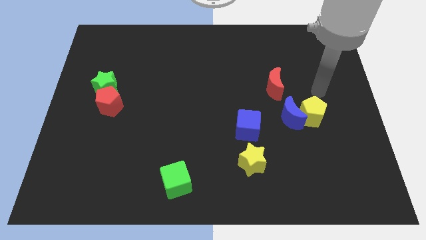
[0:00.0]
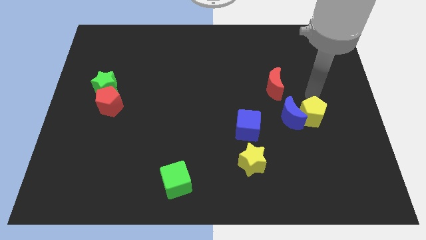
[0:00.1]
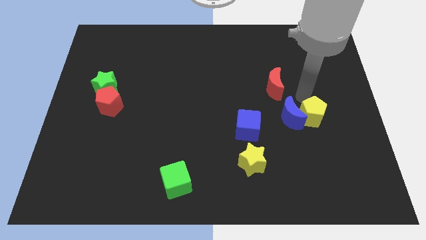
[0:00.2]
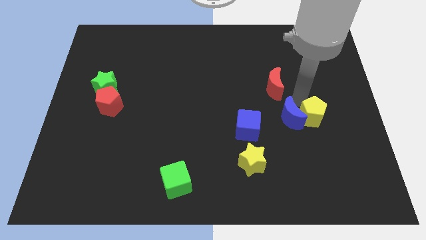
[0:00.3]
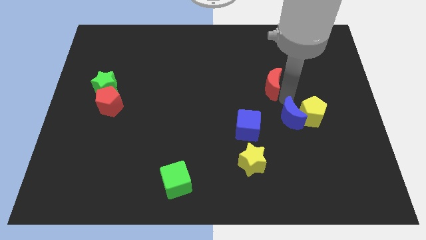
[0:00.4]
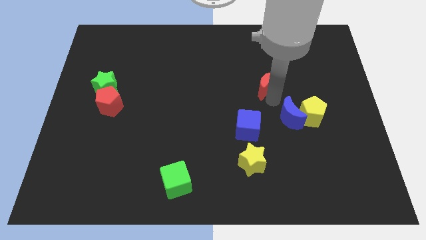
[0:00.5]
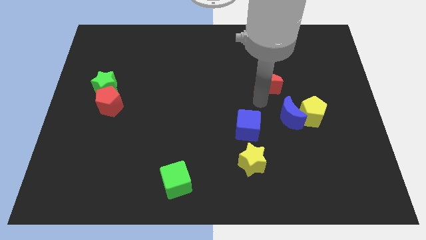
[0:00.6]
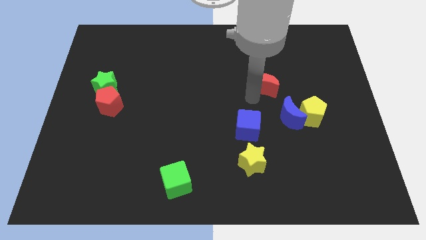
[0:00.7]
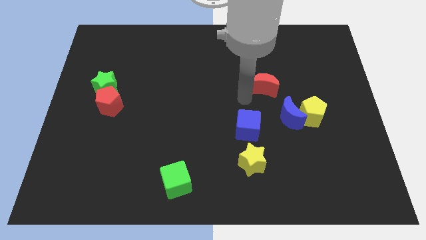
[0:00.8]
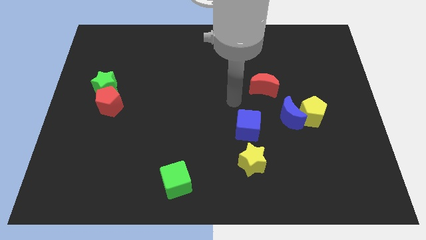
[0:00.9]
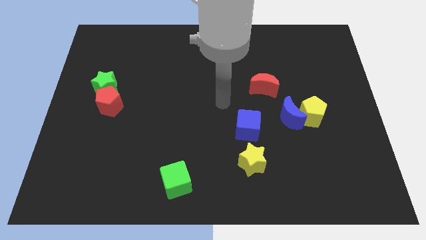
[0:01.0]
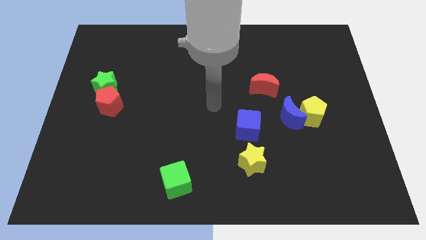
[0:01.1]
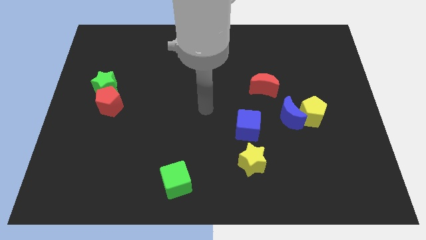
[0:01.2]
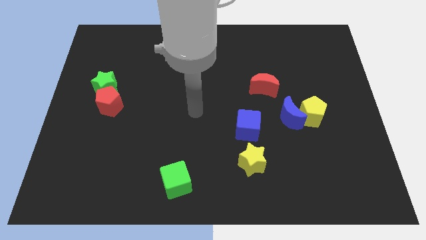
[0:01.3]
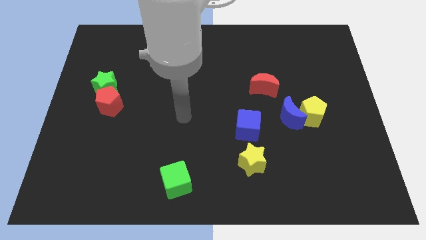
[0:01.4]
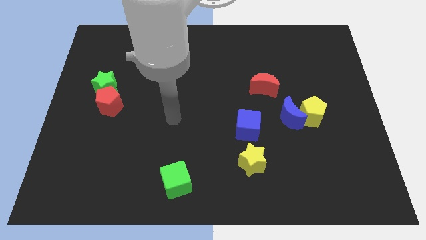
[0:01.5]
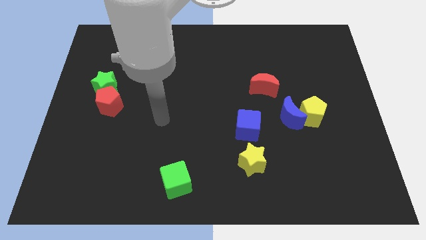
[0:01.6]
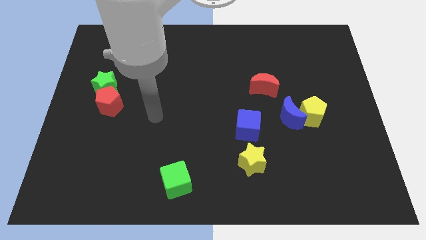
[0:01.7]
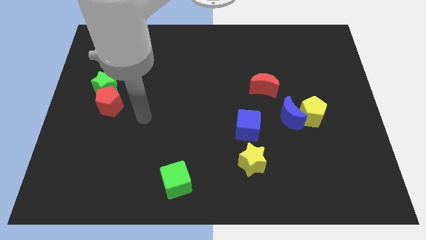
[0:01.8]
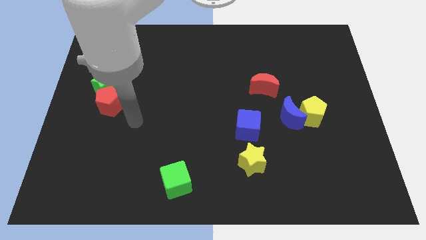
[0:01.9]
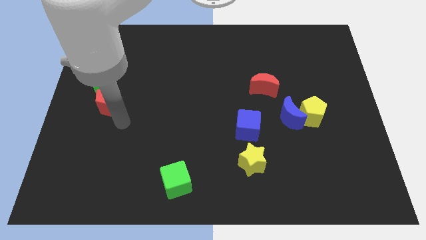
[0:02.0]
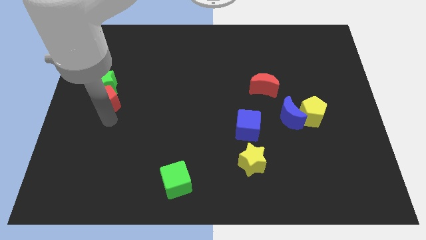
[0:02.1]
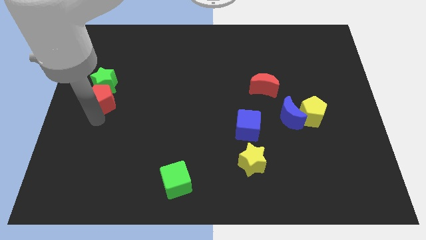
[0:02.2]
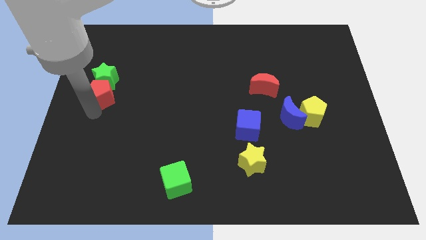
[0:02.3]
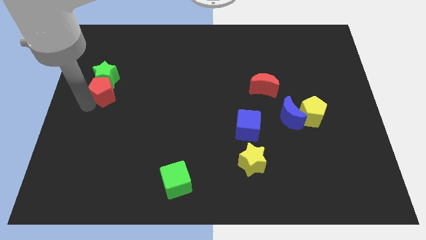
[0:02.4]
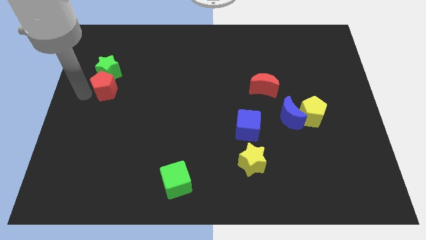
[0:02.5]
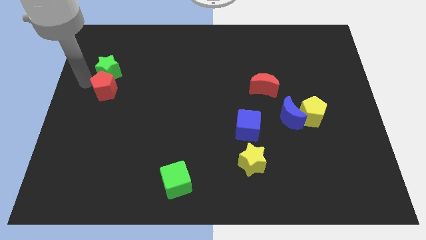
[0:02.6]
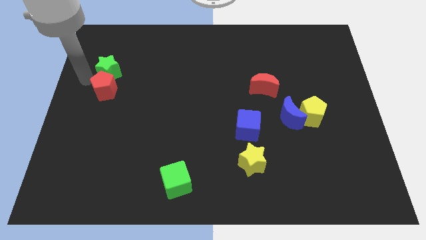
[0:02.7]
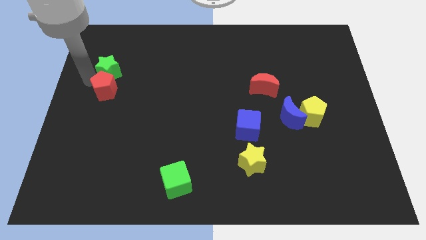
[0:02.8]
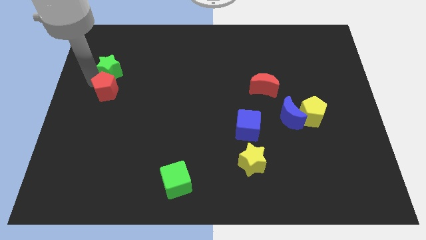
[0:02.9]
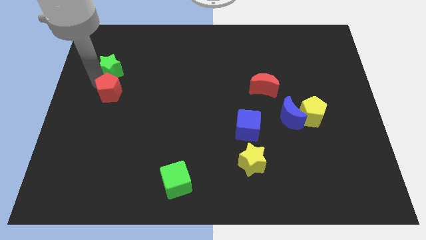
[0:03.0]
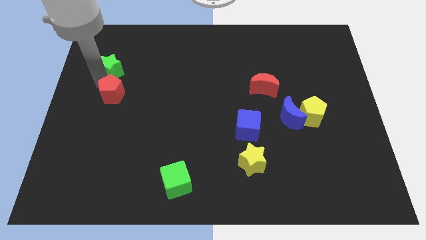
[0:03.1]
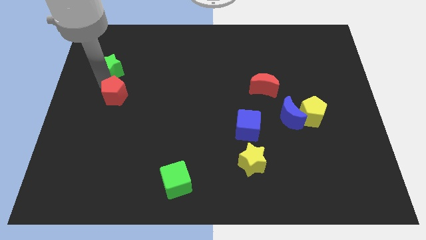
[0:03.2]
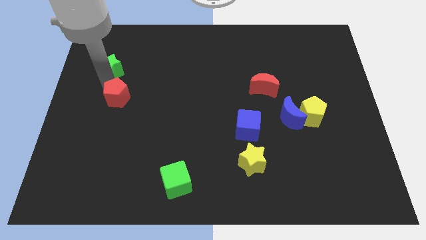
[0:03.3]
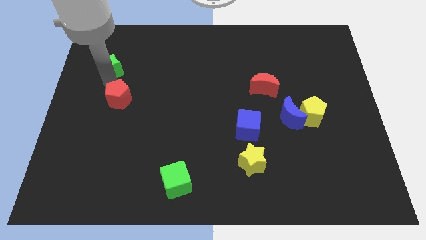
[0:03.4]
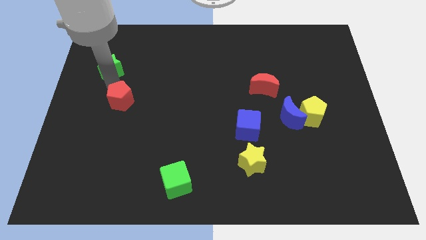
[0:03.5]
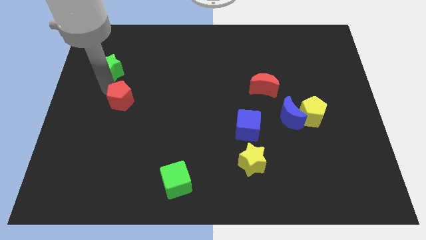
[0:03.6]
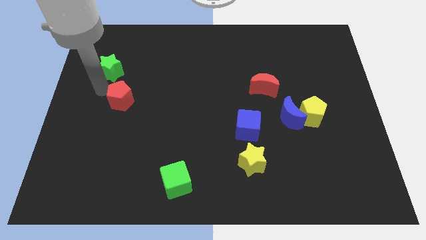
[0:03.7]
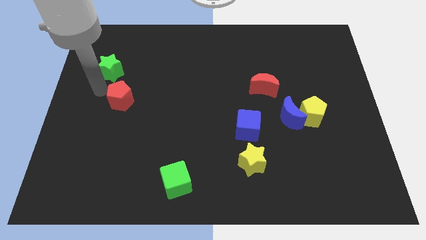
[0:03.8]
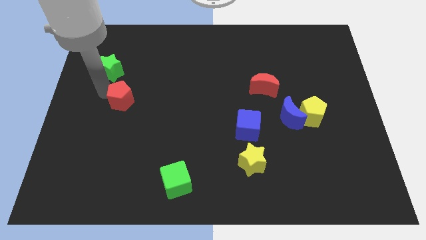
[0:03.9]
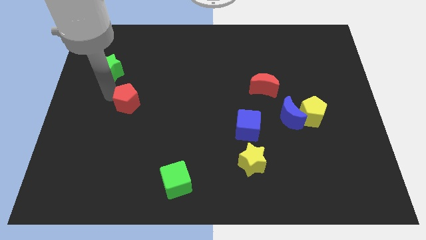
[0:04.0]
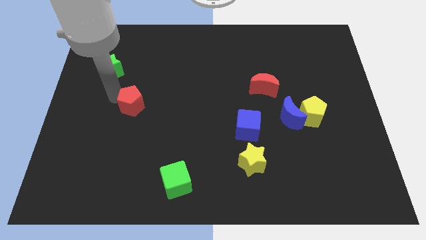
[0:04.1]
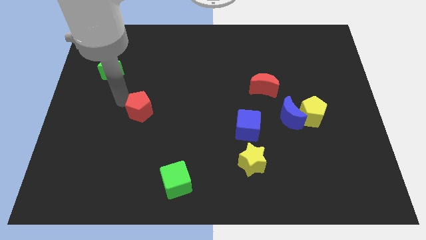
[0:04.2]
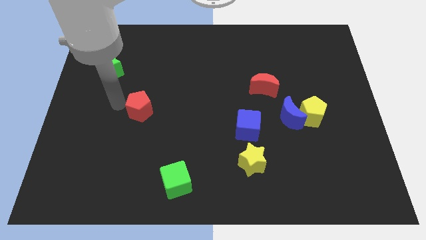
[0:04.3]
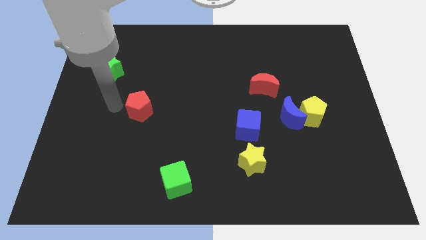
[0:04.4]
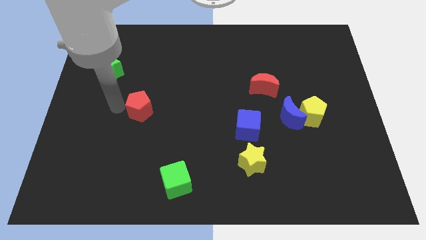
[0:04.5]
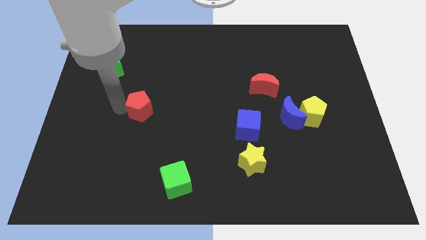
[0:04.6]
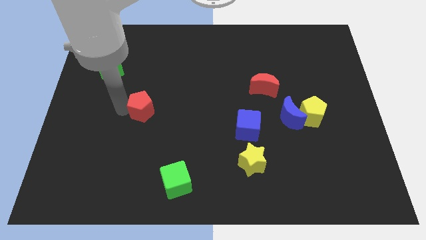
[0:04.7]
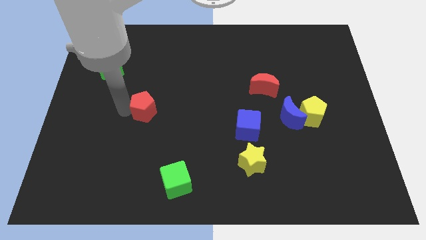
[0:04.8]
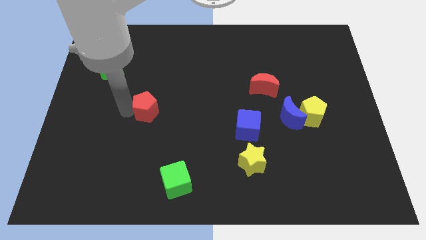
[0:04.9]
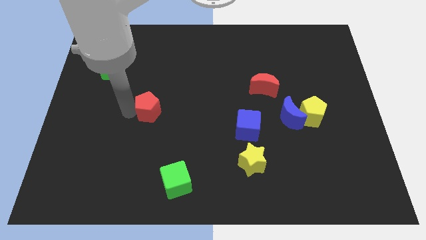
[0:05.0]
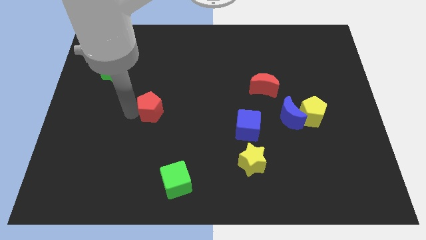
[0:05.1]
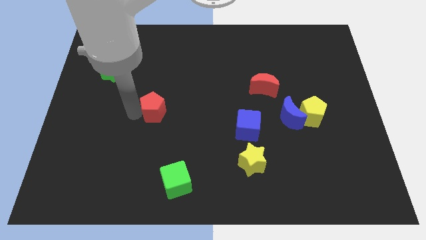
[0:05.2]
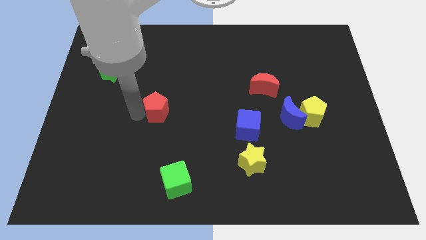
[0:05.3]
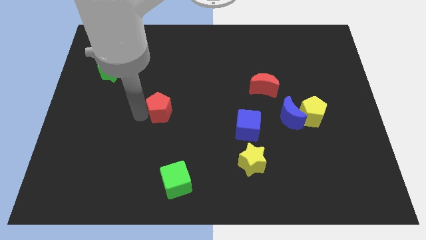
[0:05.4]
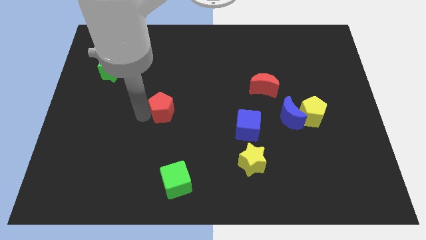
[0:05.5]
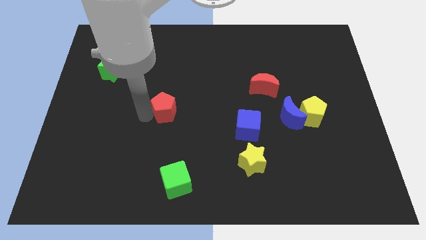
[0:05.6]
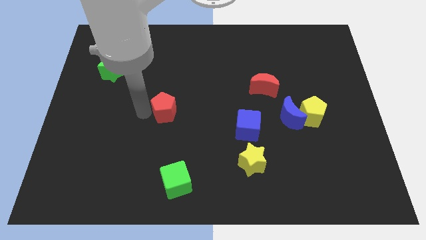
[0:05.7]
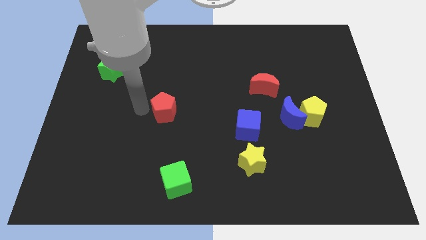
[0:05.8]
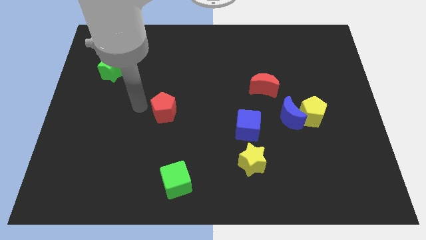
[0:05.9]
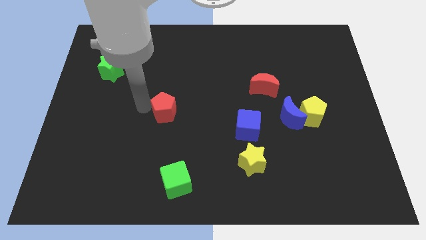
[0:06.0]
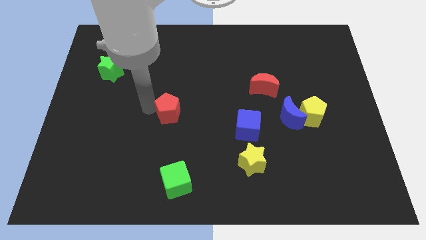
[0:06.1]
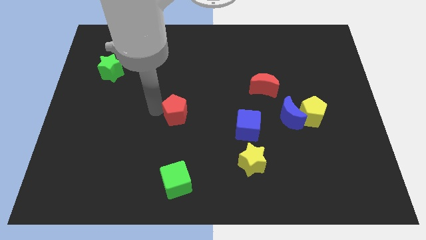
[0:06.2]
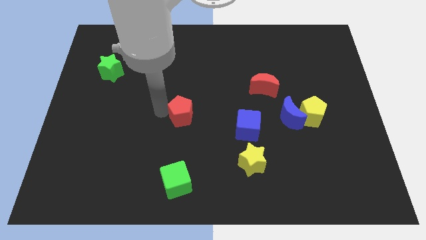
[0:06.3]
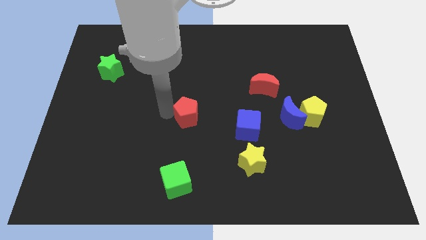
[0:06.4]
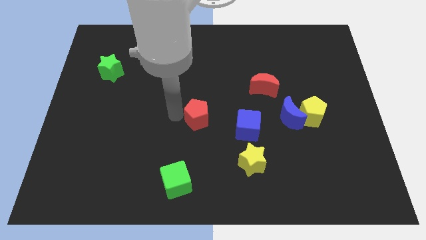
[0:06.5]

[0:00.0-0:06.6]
push the red pentagon right

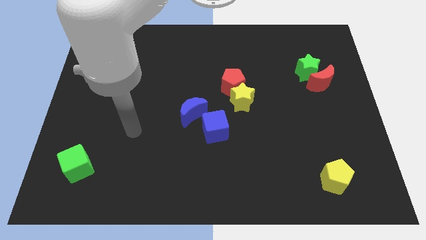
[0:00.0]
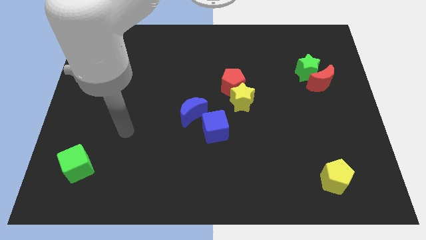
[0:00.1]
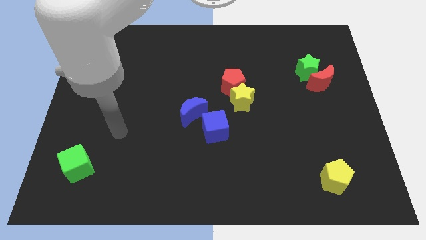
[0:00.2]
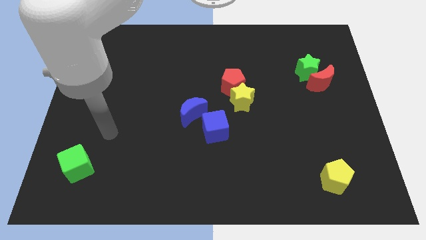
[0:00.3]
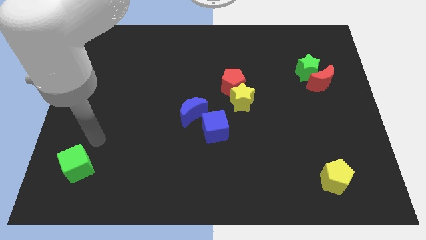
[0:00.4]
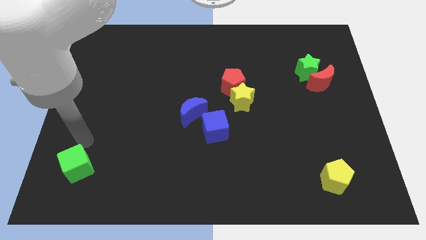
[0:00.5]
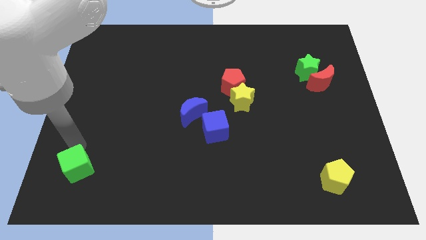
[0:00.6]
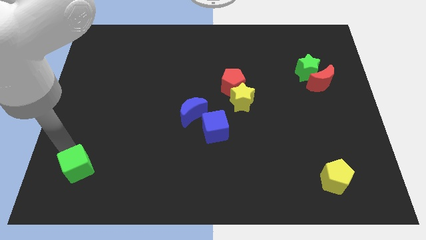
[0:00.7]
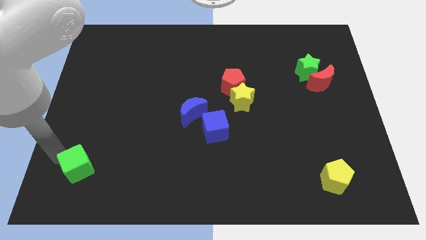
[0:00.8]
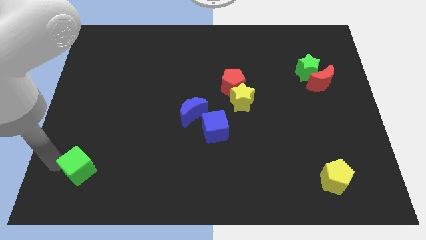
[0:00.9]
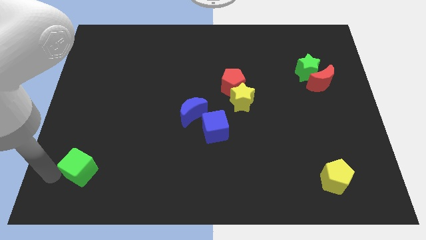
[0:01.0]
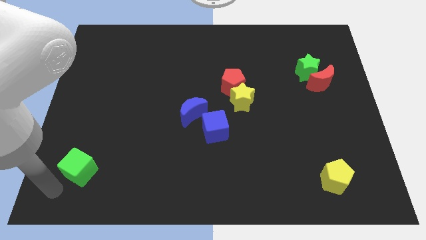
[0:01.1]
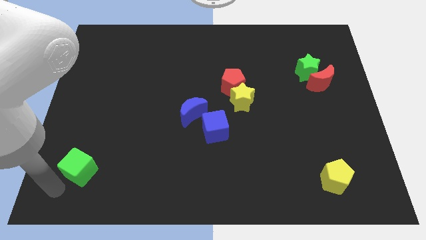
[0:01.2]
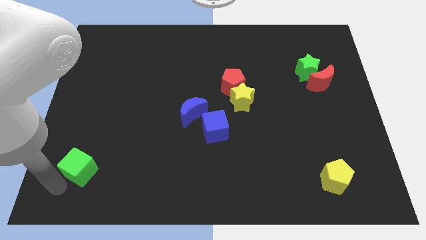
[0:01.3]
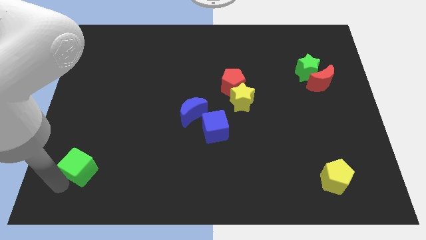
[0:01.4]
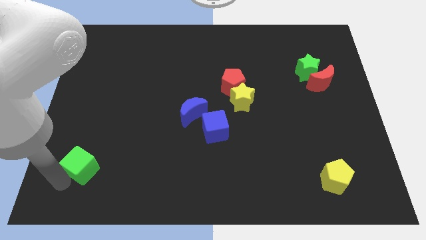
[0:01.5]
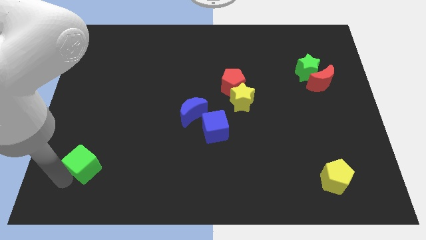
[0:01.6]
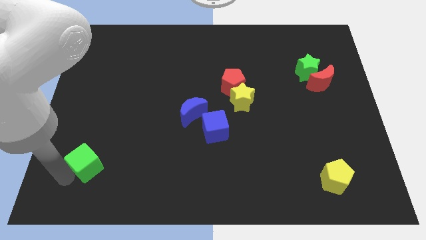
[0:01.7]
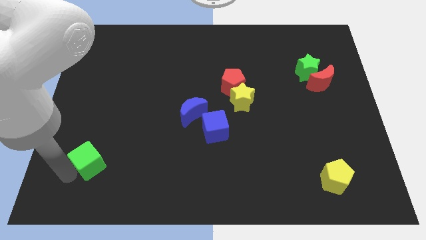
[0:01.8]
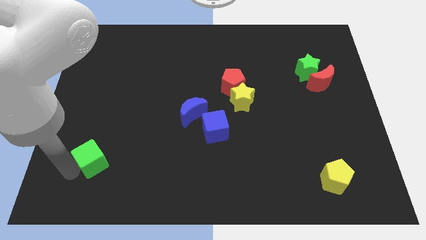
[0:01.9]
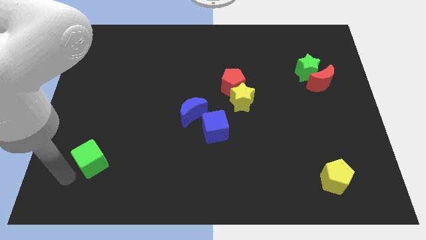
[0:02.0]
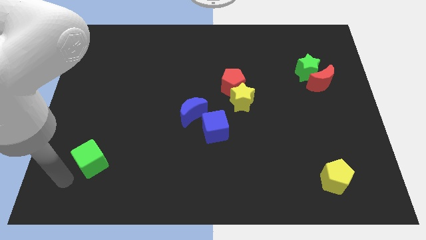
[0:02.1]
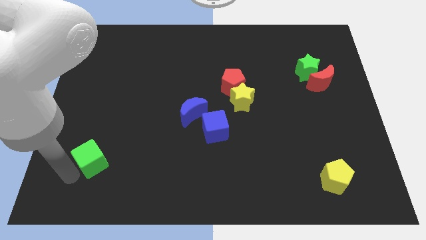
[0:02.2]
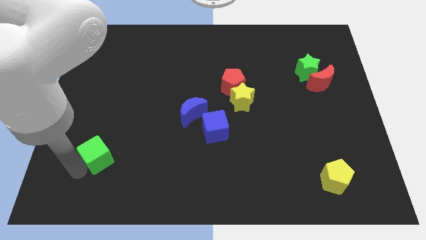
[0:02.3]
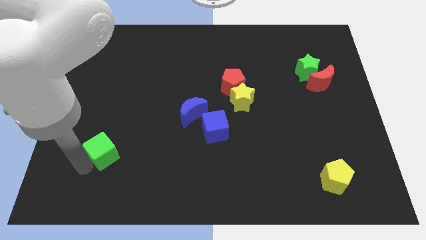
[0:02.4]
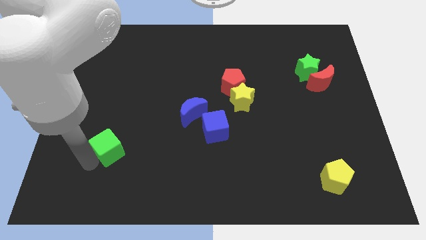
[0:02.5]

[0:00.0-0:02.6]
move the green cube slightly diagonally upwards and to the right
